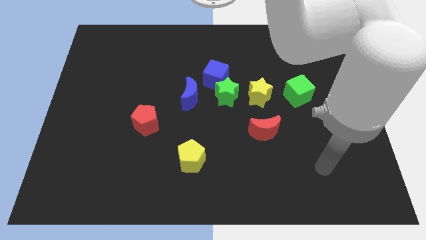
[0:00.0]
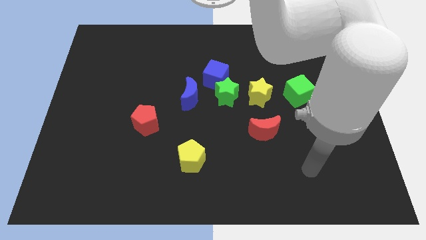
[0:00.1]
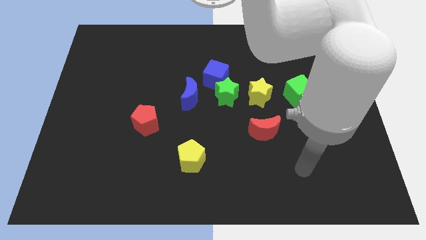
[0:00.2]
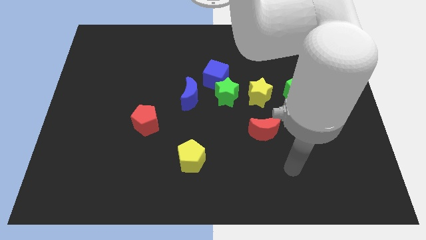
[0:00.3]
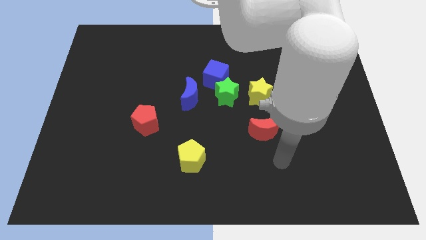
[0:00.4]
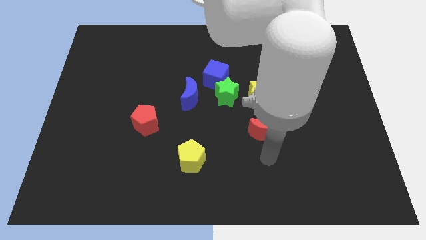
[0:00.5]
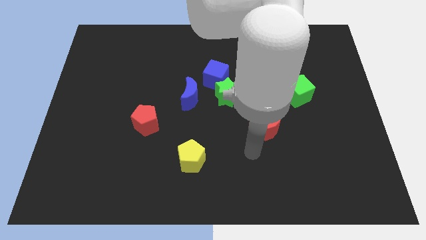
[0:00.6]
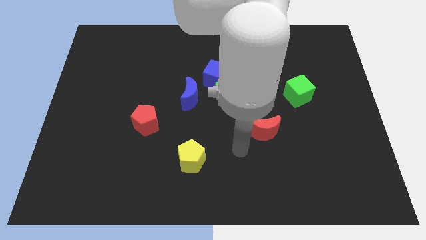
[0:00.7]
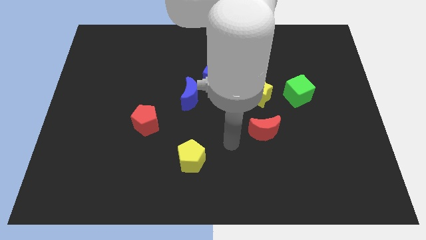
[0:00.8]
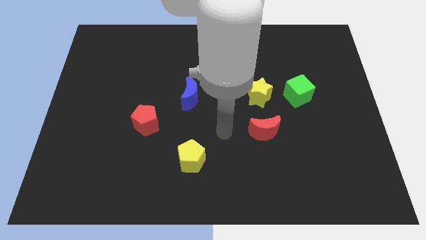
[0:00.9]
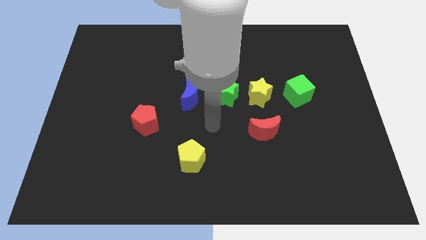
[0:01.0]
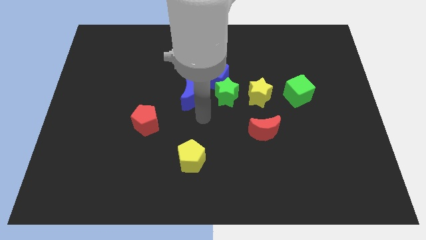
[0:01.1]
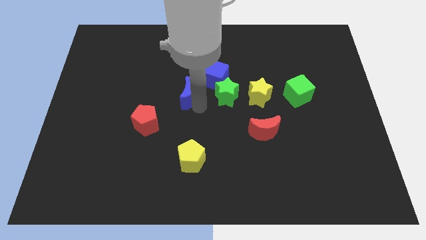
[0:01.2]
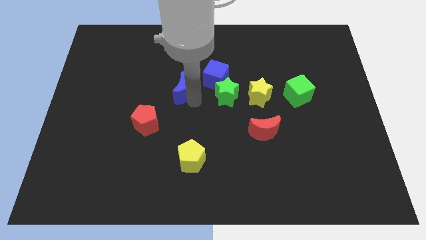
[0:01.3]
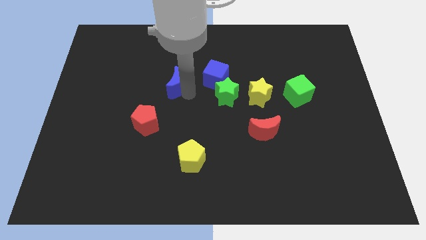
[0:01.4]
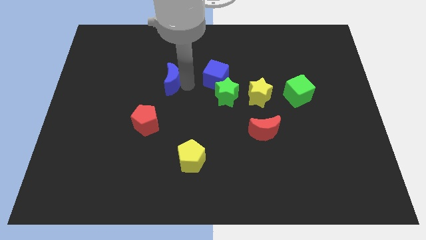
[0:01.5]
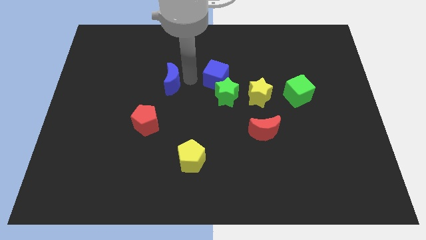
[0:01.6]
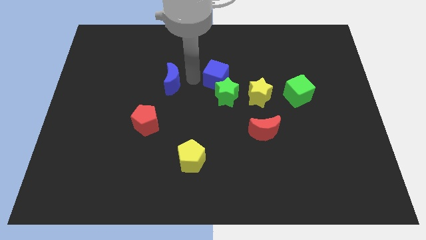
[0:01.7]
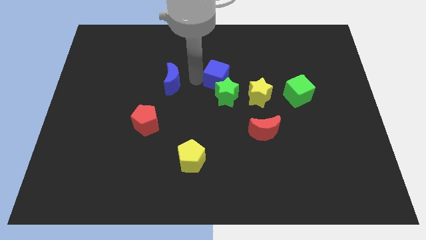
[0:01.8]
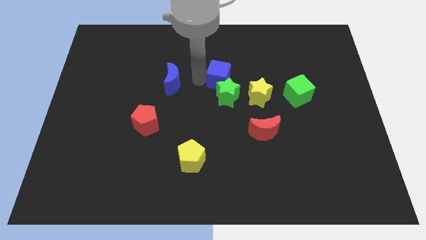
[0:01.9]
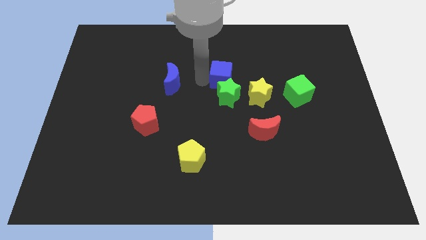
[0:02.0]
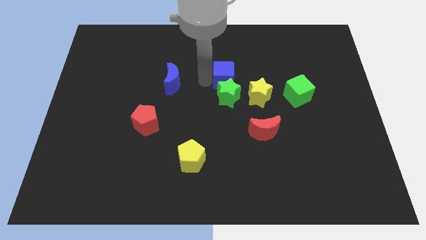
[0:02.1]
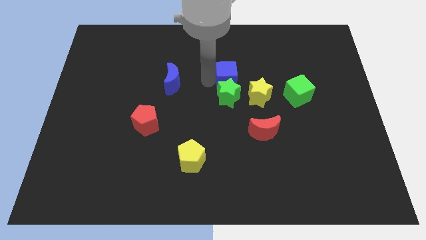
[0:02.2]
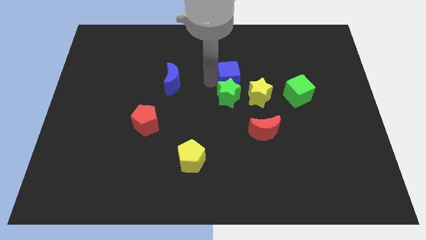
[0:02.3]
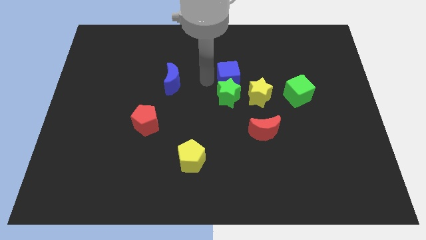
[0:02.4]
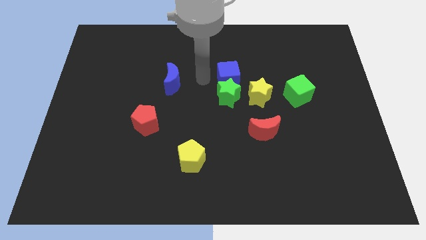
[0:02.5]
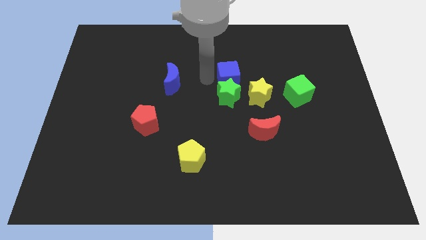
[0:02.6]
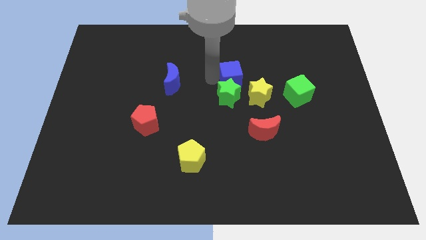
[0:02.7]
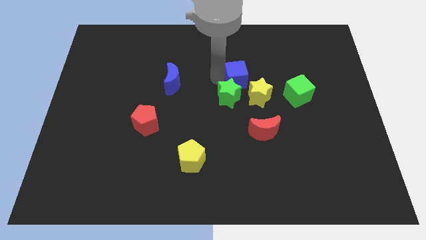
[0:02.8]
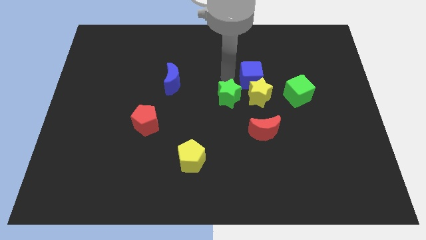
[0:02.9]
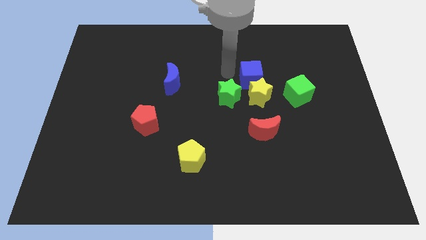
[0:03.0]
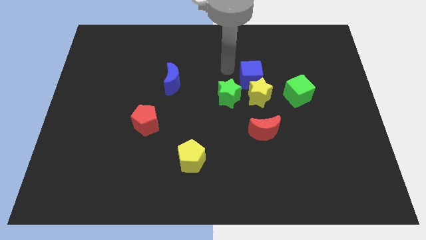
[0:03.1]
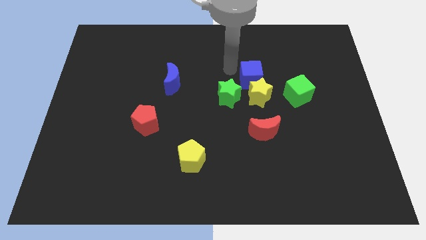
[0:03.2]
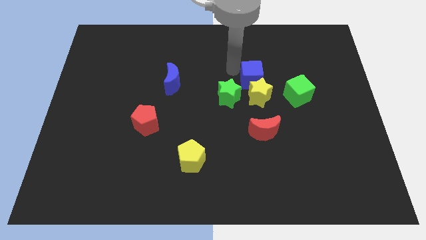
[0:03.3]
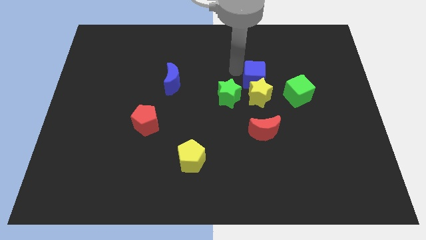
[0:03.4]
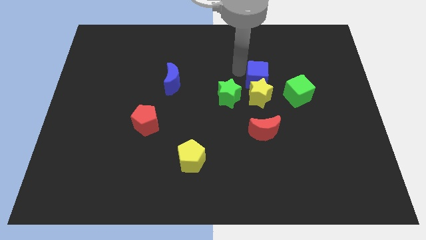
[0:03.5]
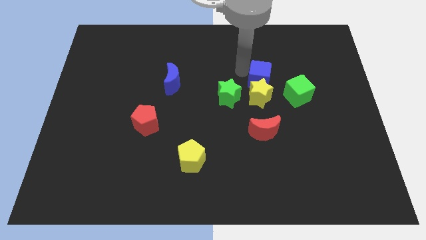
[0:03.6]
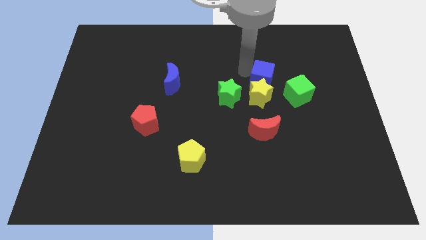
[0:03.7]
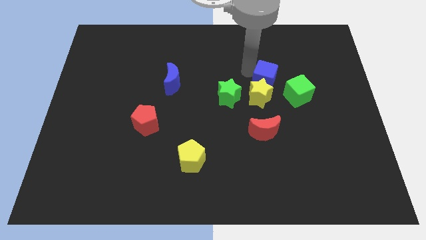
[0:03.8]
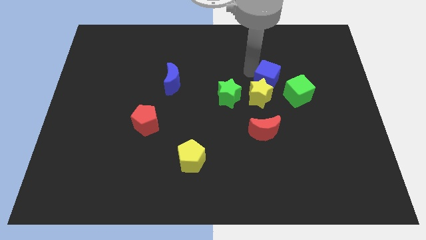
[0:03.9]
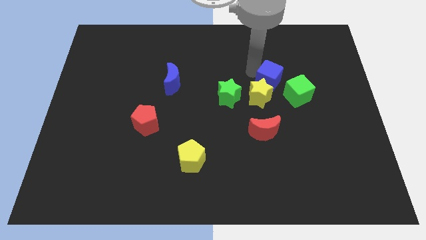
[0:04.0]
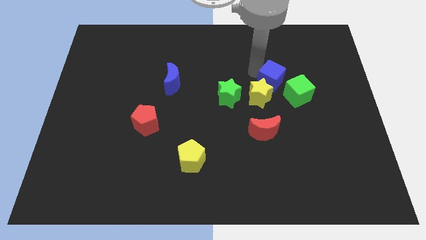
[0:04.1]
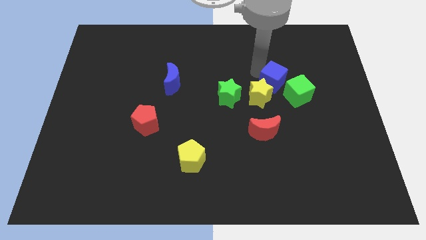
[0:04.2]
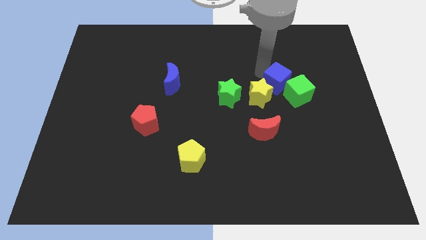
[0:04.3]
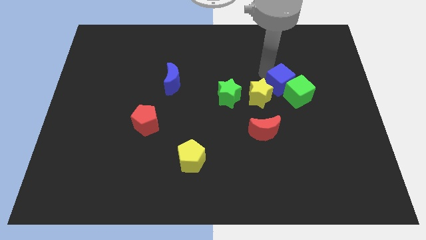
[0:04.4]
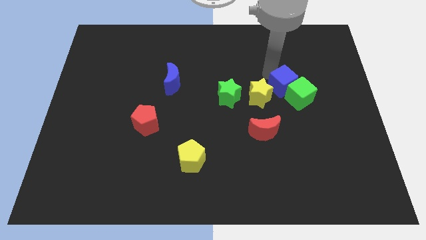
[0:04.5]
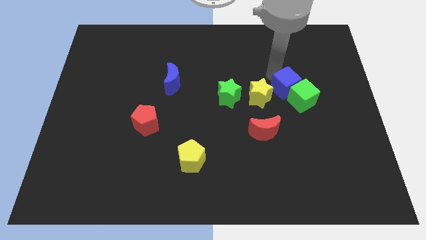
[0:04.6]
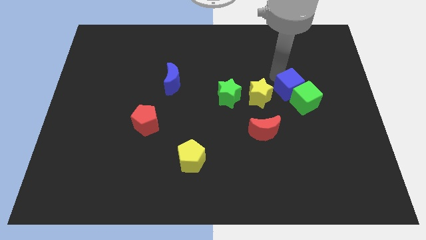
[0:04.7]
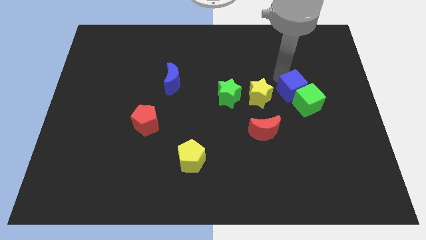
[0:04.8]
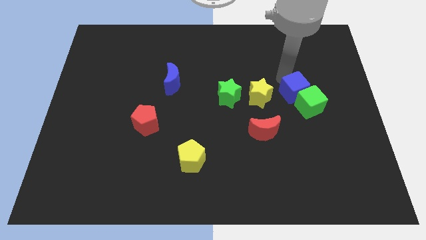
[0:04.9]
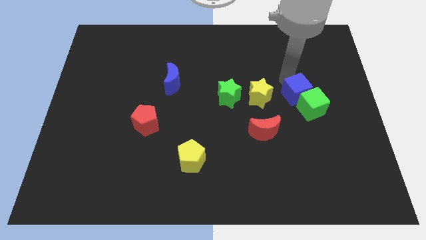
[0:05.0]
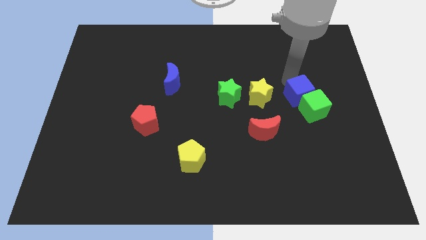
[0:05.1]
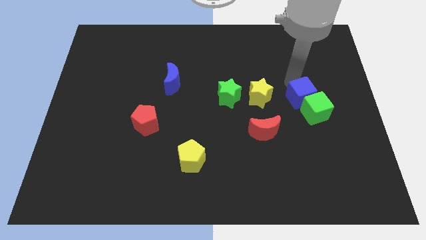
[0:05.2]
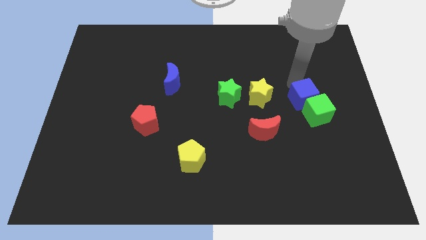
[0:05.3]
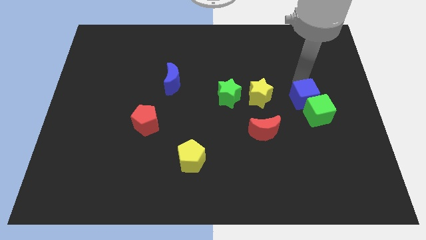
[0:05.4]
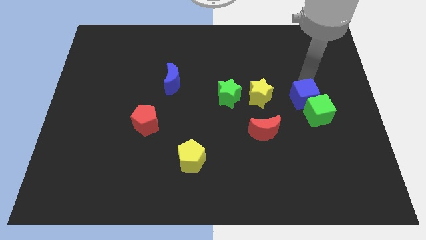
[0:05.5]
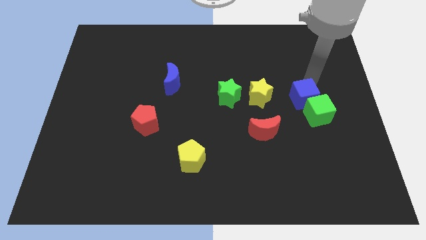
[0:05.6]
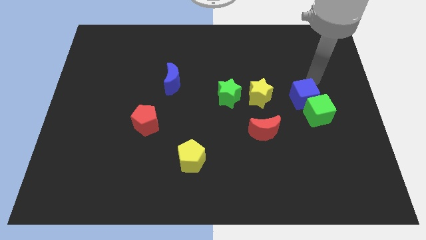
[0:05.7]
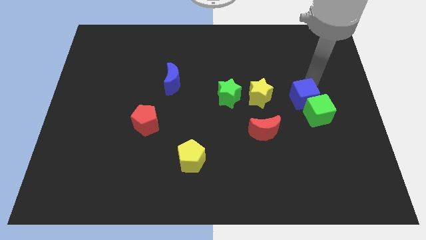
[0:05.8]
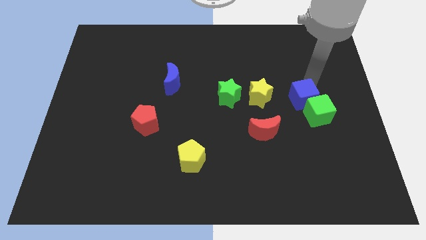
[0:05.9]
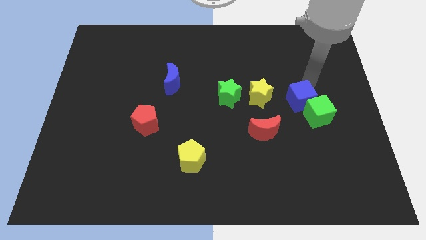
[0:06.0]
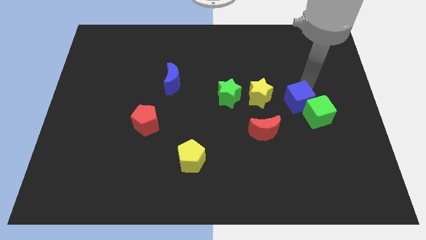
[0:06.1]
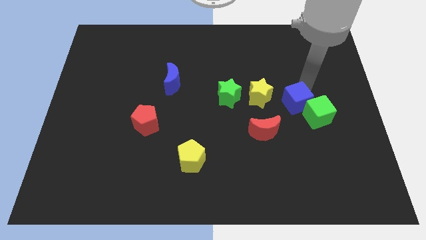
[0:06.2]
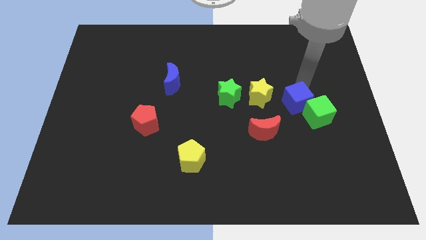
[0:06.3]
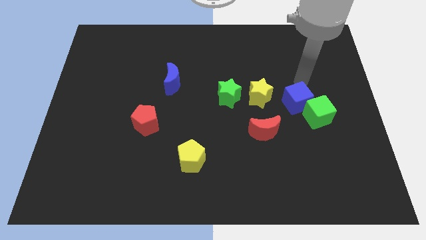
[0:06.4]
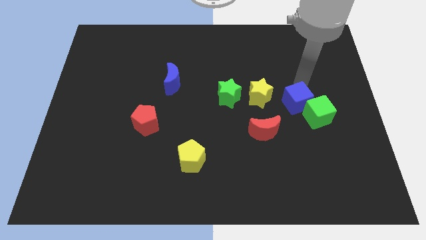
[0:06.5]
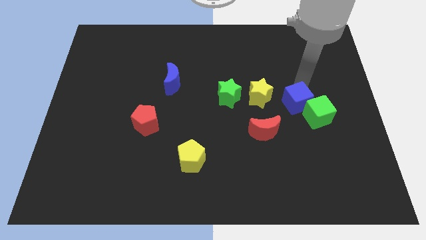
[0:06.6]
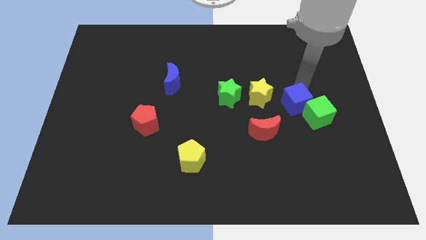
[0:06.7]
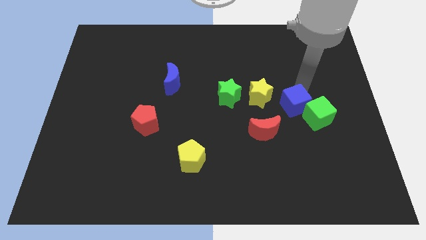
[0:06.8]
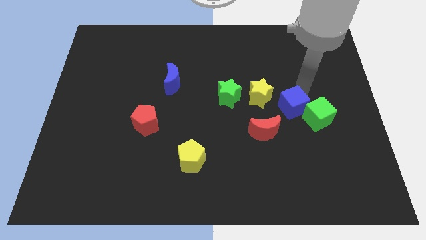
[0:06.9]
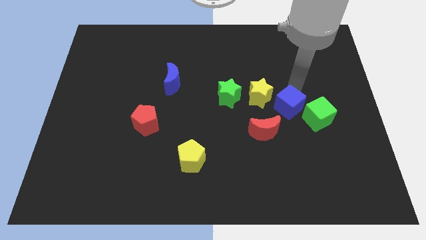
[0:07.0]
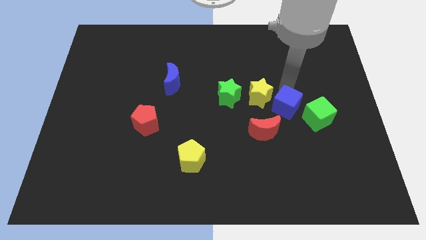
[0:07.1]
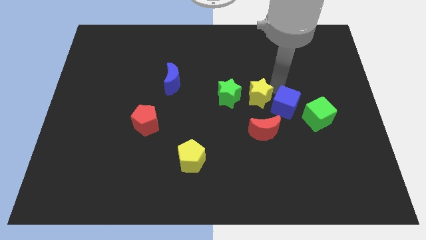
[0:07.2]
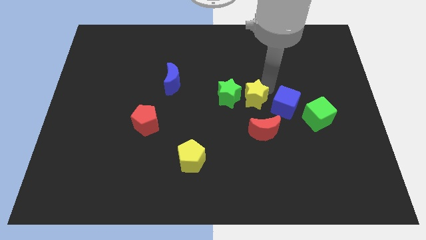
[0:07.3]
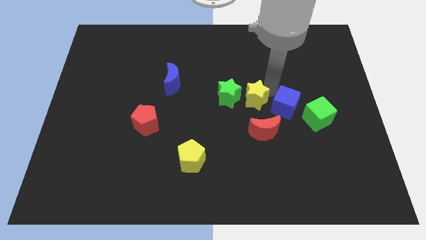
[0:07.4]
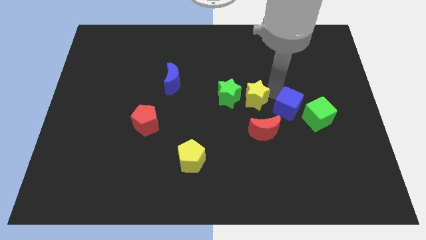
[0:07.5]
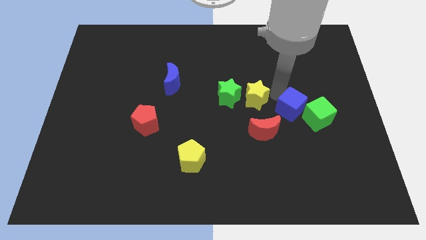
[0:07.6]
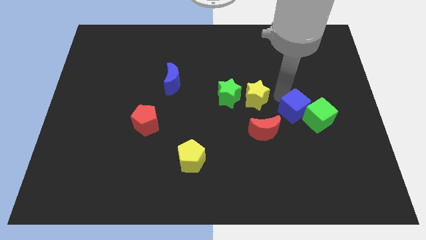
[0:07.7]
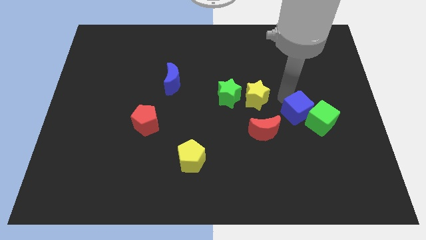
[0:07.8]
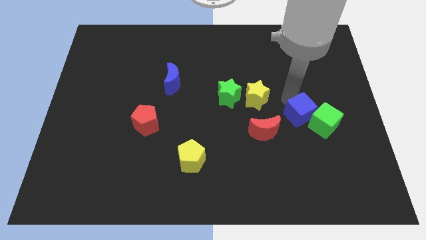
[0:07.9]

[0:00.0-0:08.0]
push the blue cube down and right diagonally

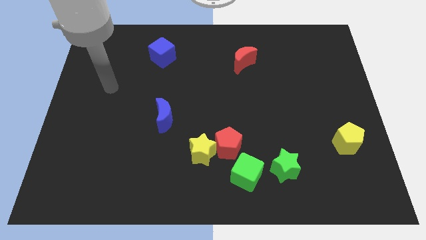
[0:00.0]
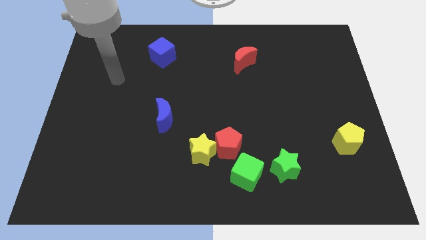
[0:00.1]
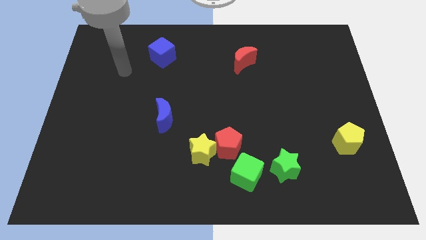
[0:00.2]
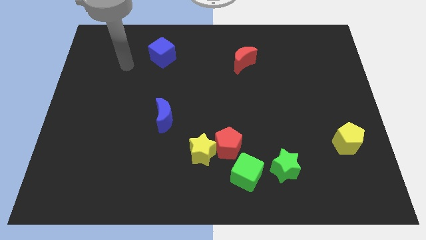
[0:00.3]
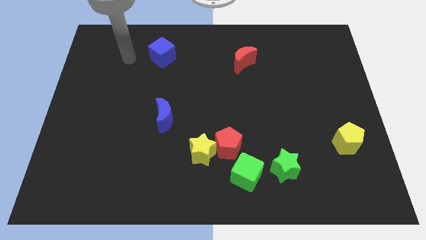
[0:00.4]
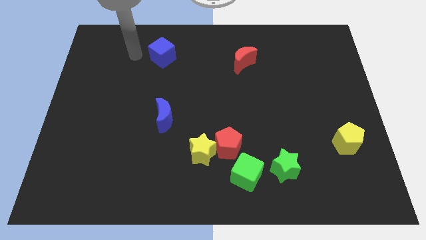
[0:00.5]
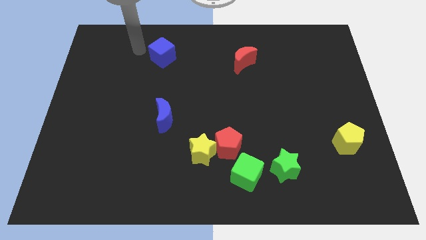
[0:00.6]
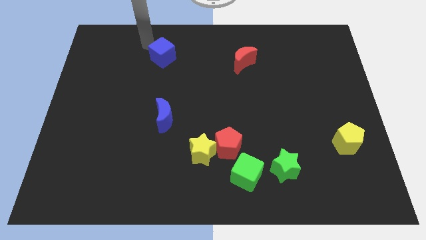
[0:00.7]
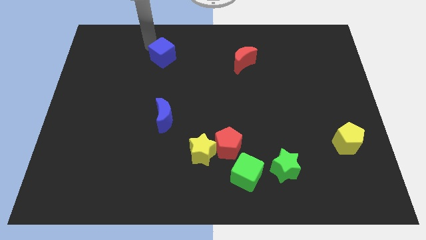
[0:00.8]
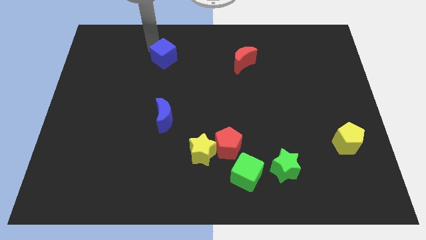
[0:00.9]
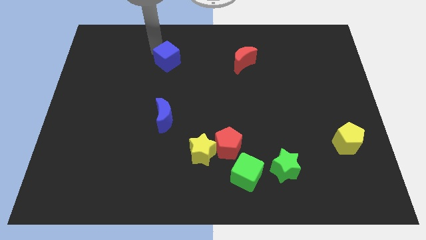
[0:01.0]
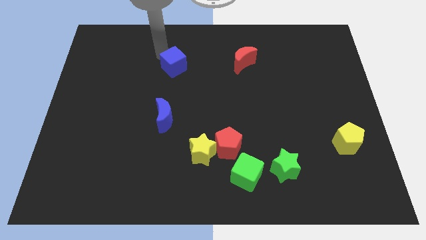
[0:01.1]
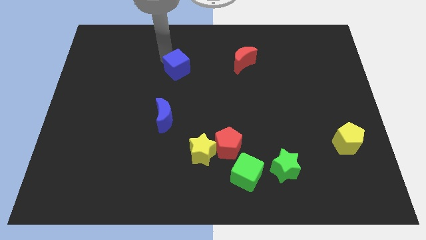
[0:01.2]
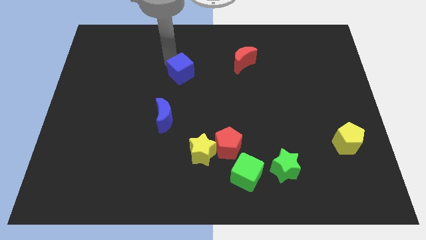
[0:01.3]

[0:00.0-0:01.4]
slightly slide the blue cube diagonally down and to the right
